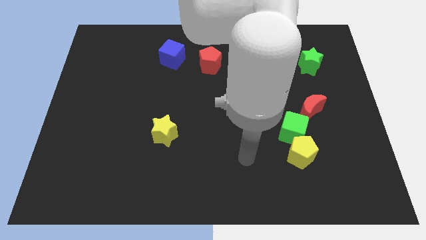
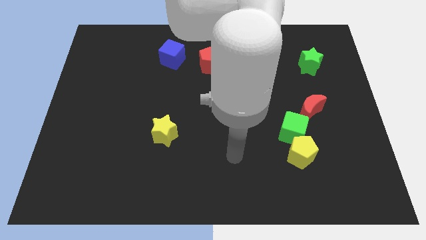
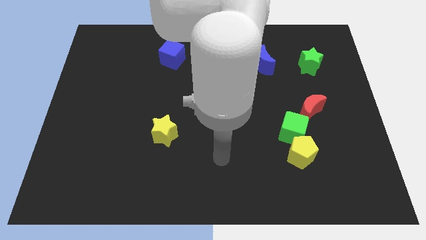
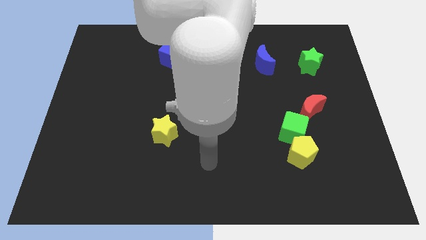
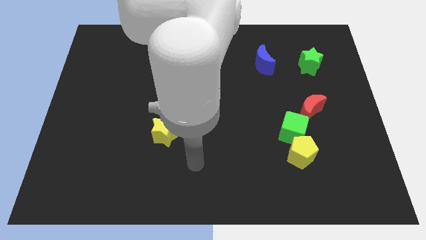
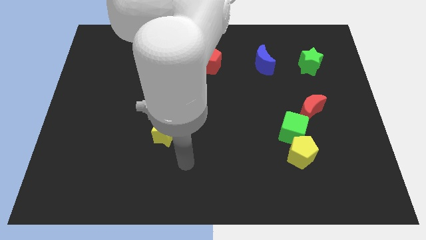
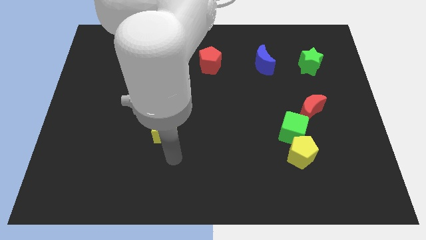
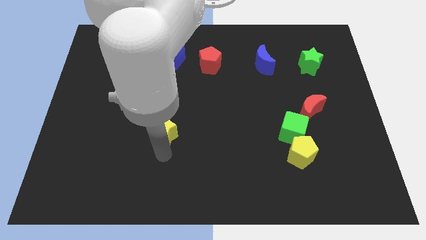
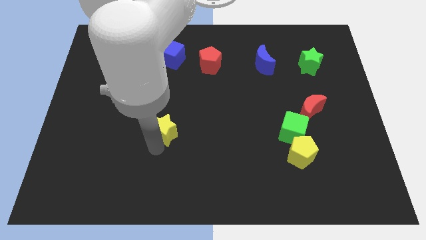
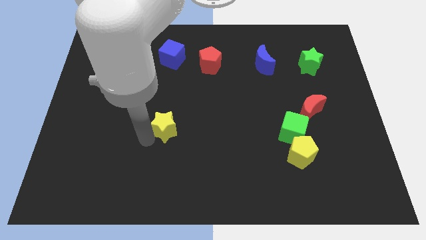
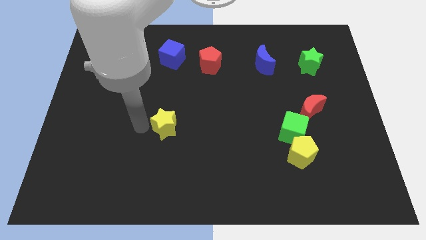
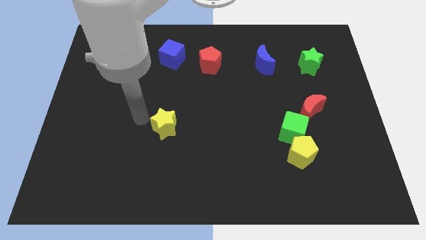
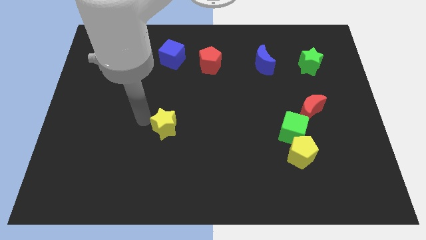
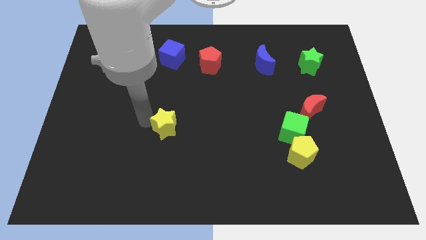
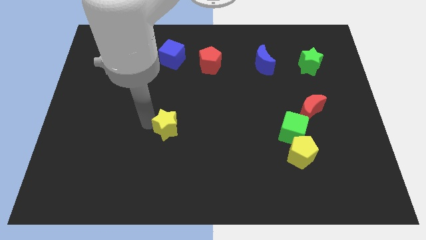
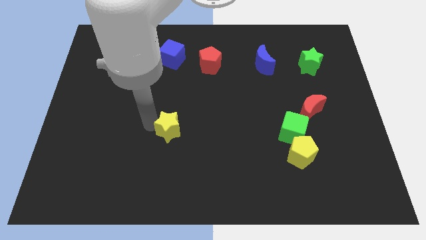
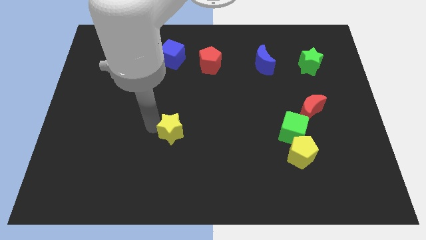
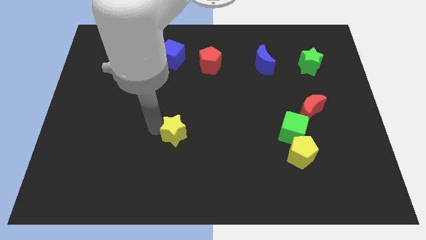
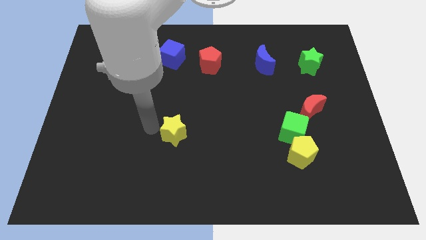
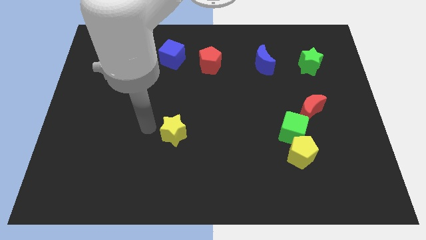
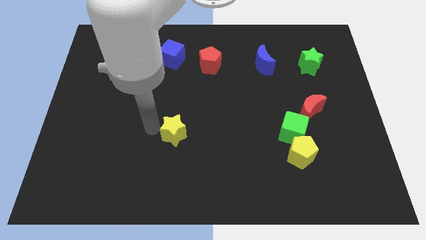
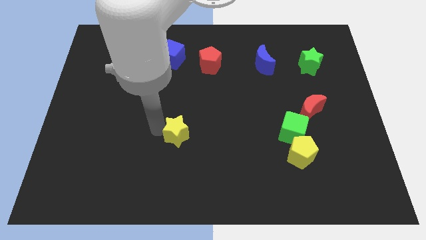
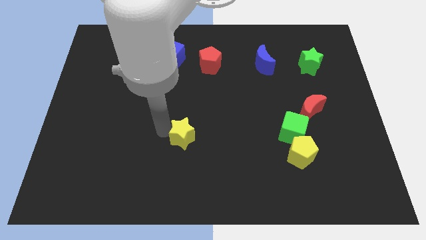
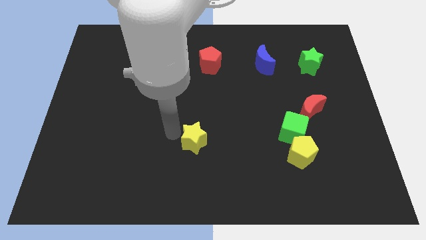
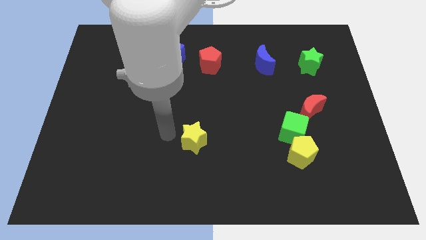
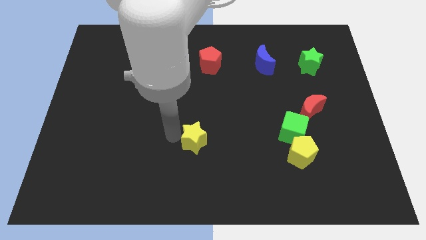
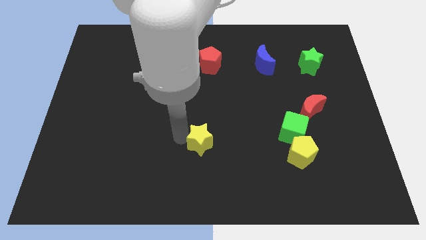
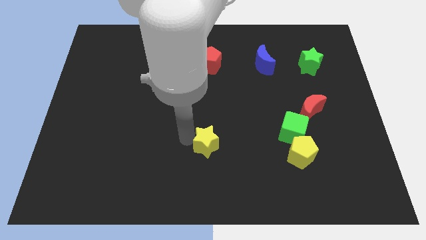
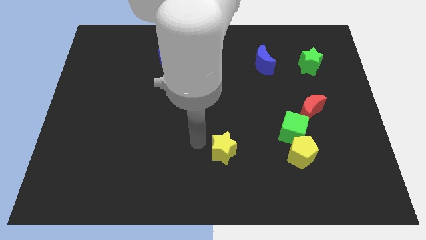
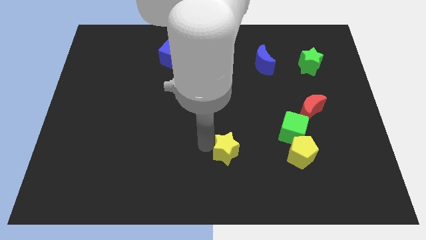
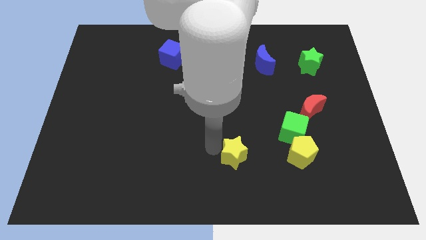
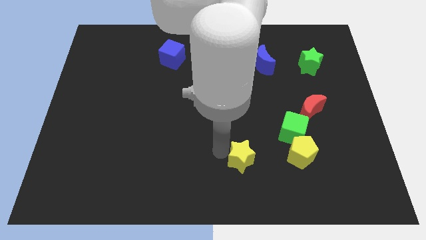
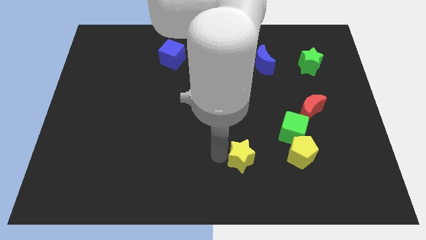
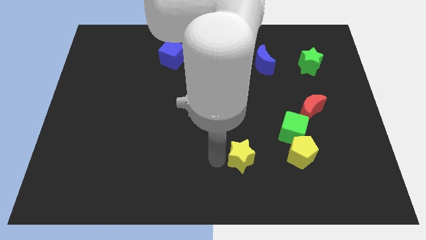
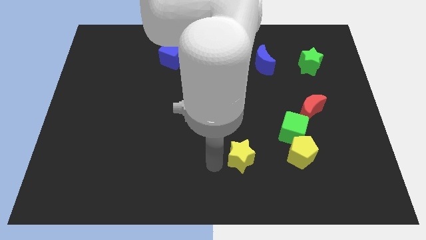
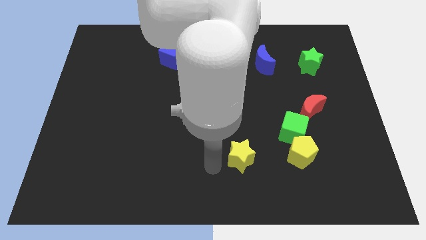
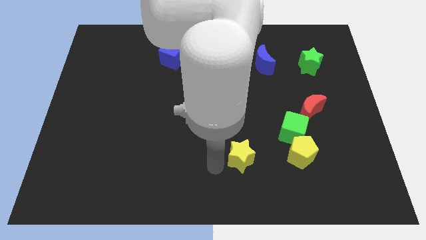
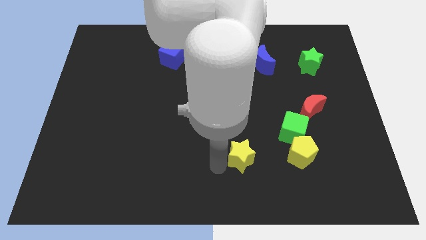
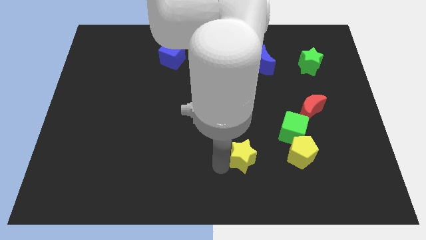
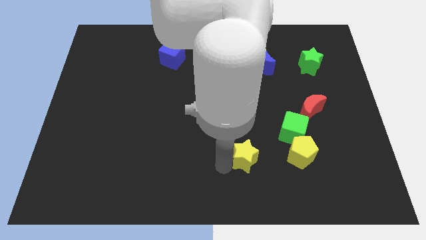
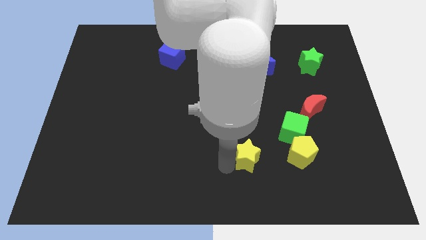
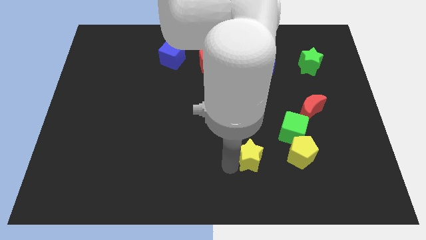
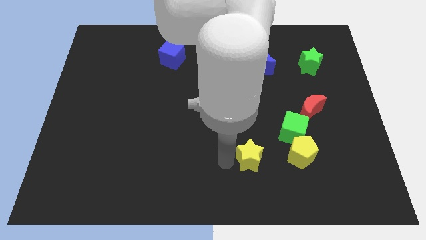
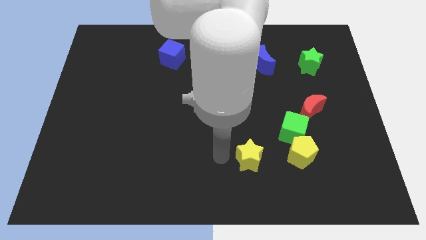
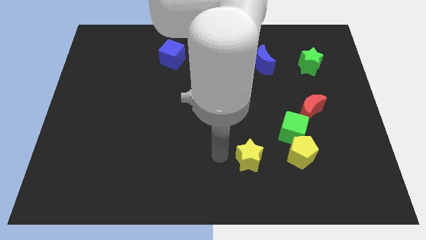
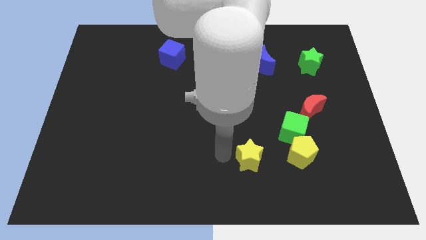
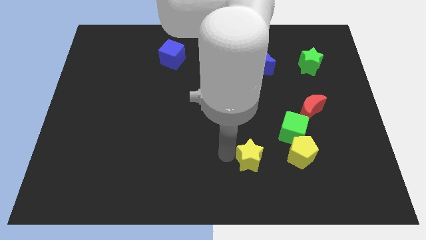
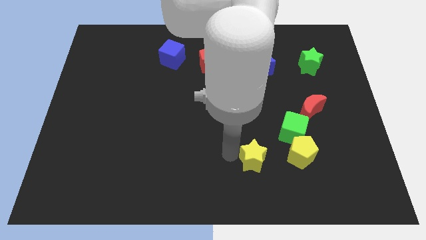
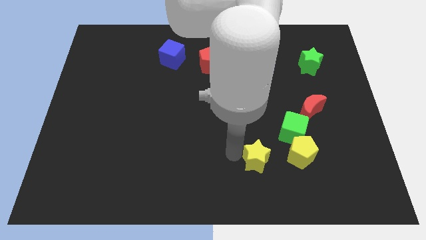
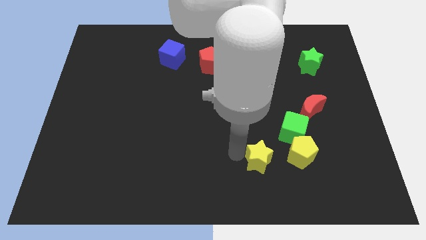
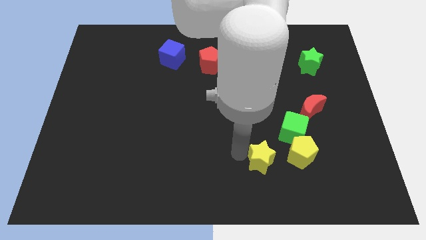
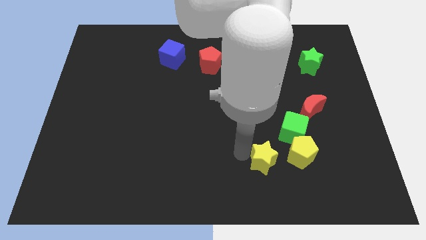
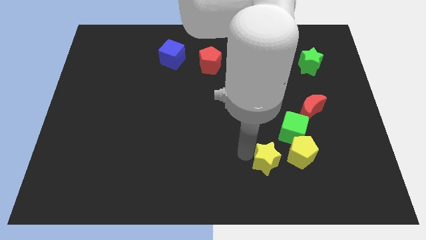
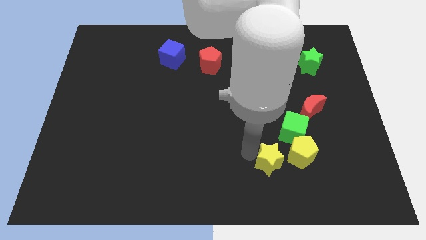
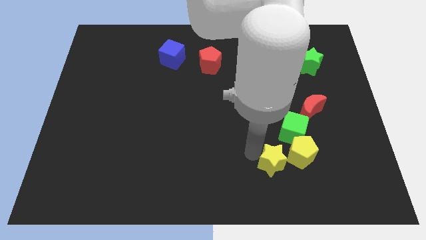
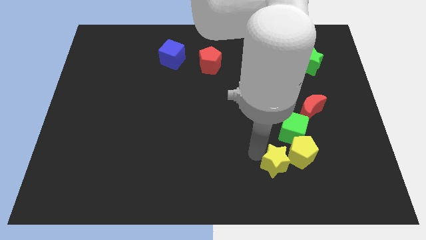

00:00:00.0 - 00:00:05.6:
push the yellow star to the bottom side of the green cube
